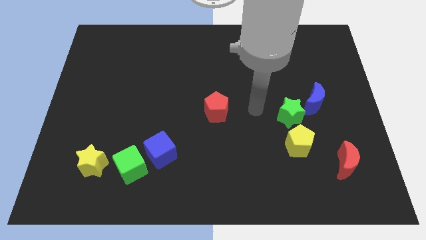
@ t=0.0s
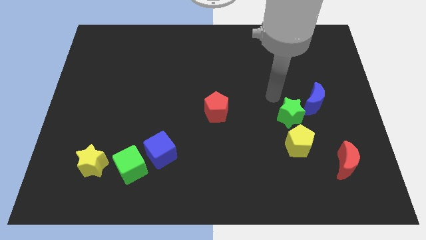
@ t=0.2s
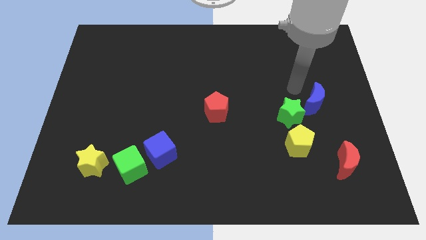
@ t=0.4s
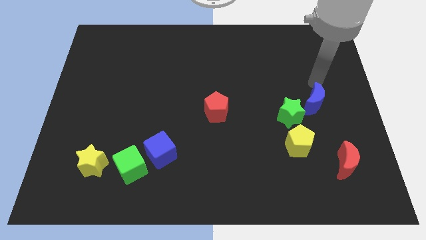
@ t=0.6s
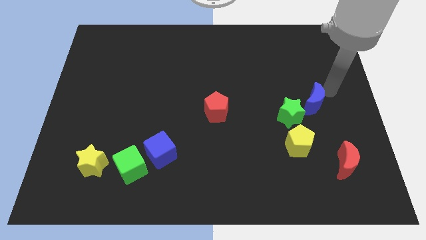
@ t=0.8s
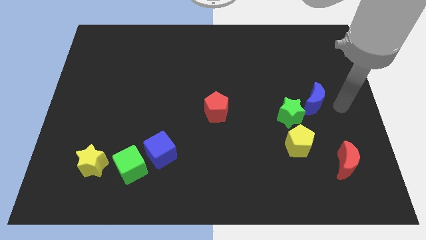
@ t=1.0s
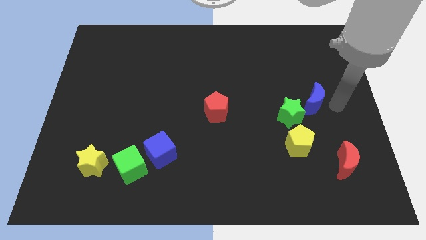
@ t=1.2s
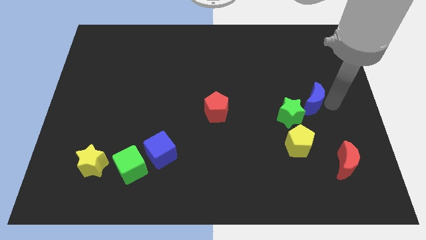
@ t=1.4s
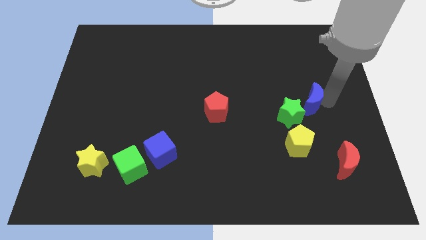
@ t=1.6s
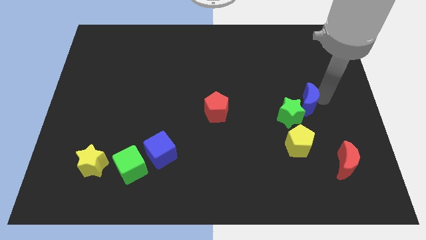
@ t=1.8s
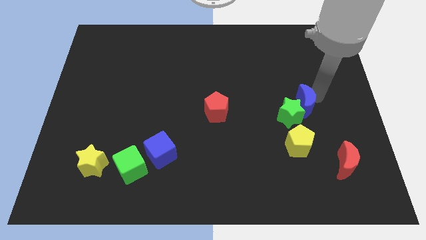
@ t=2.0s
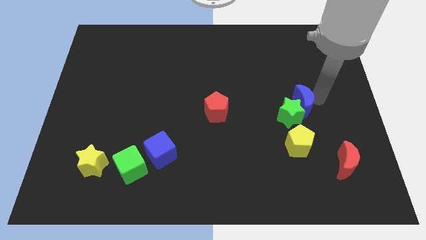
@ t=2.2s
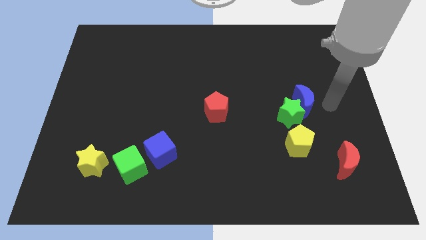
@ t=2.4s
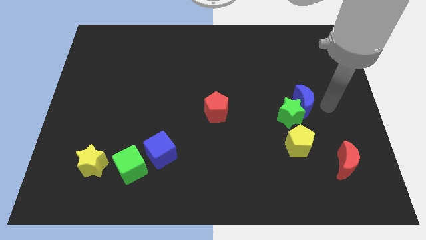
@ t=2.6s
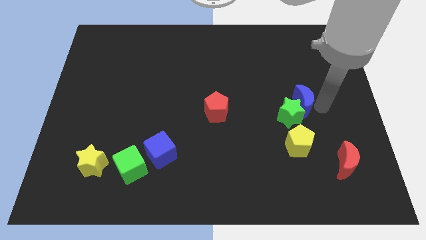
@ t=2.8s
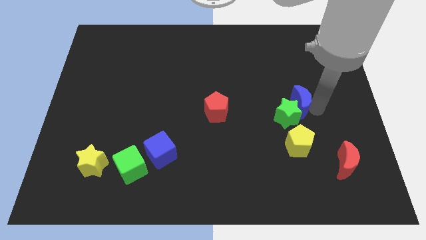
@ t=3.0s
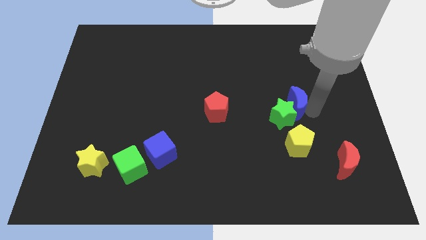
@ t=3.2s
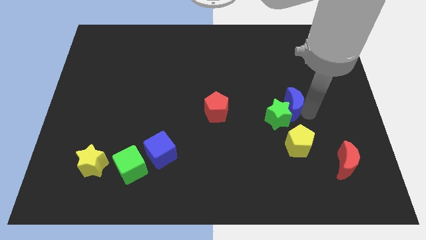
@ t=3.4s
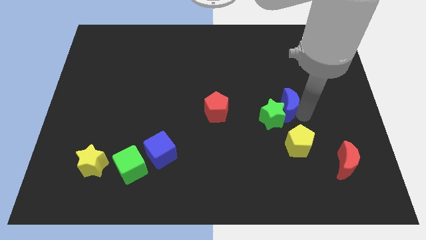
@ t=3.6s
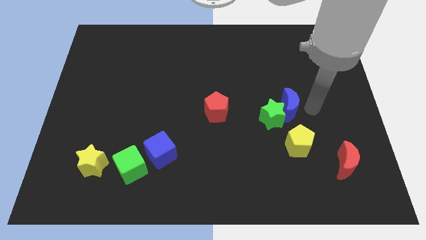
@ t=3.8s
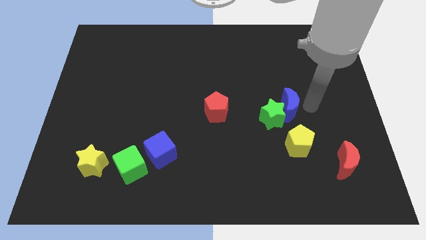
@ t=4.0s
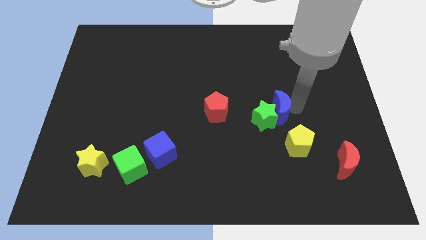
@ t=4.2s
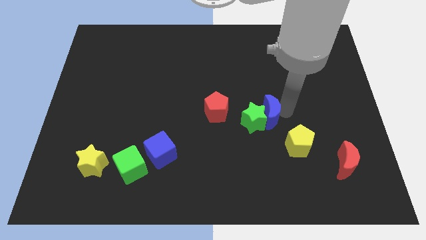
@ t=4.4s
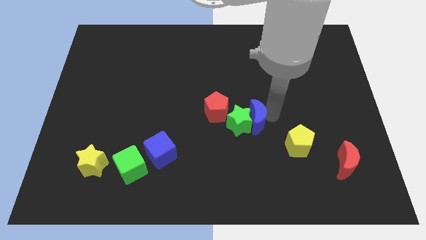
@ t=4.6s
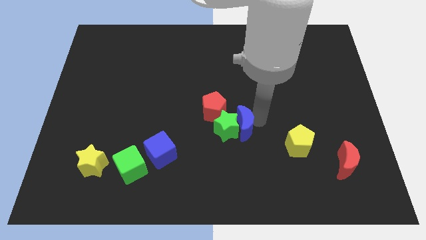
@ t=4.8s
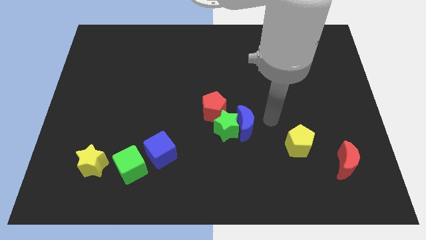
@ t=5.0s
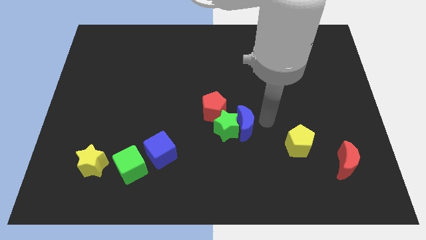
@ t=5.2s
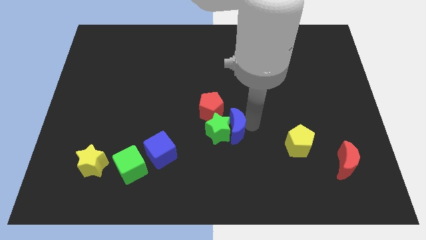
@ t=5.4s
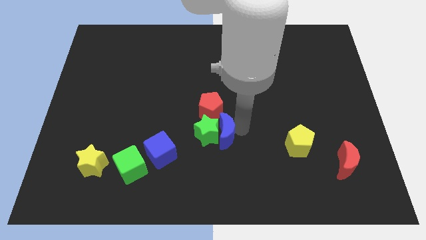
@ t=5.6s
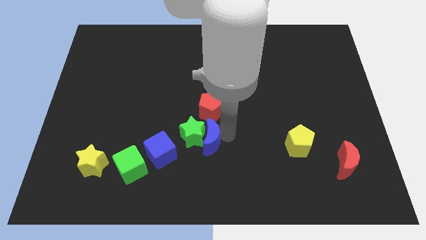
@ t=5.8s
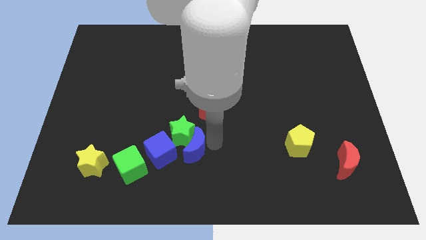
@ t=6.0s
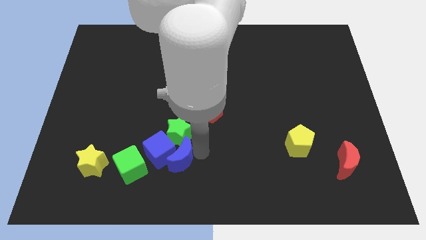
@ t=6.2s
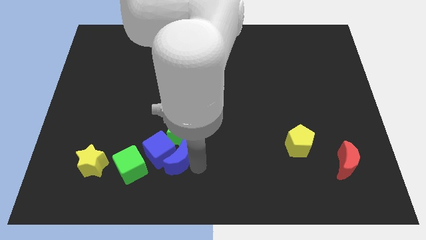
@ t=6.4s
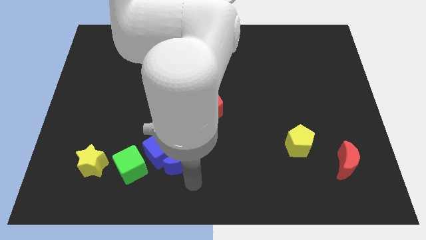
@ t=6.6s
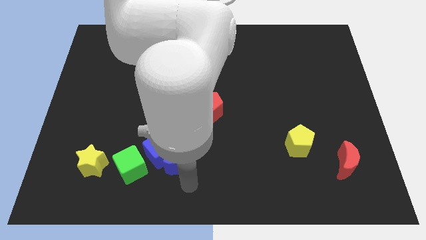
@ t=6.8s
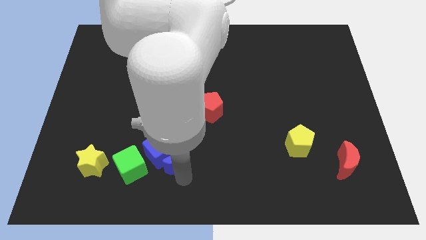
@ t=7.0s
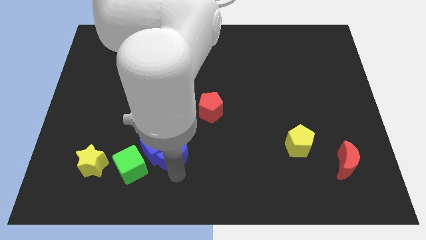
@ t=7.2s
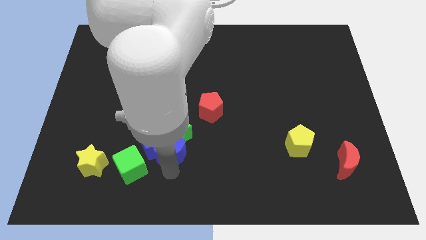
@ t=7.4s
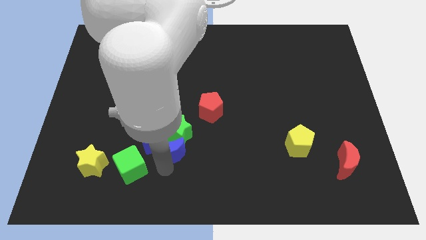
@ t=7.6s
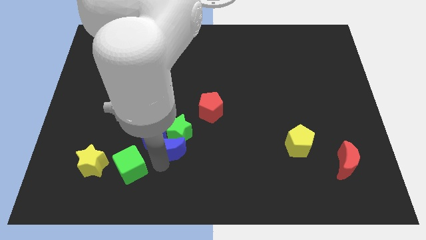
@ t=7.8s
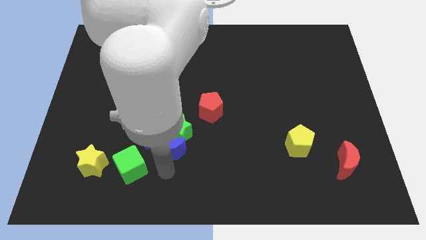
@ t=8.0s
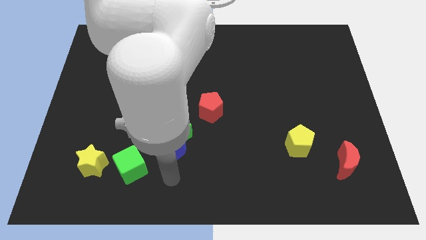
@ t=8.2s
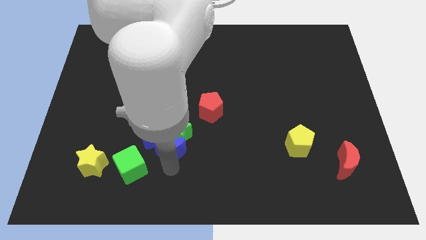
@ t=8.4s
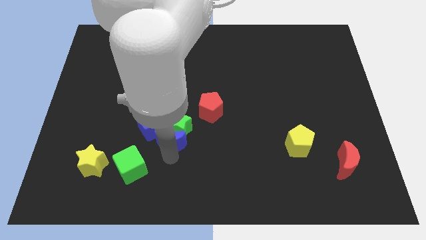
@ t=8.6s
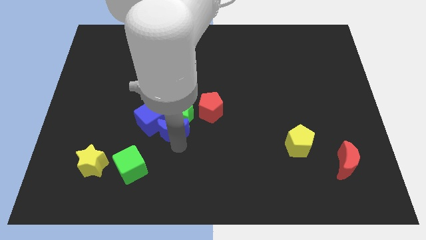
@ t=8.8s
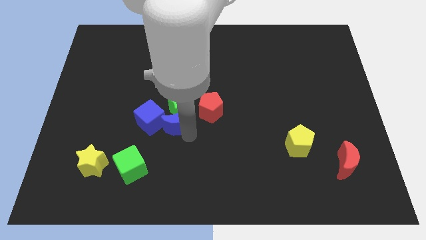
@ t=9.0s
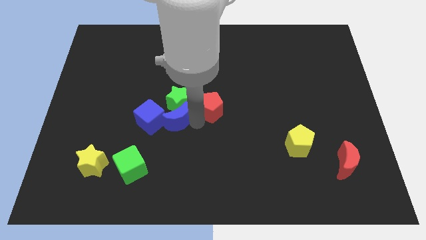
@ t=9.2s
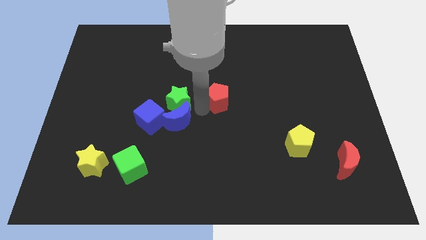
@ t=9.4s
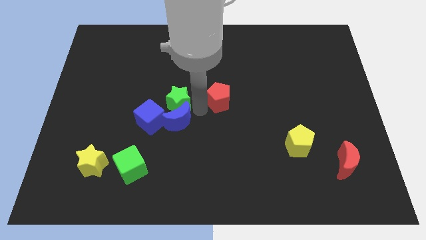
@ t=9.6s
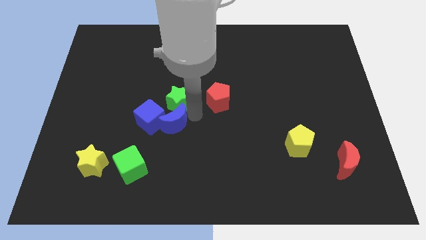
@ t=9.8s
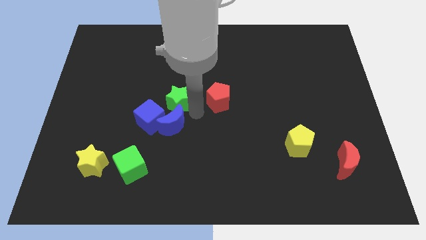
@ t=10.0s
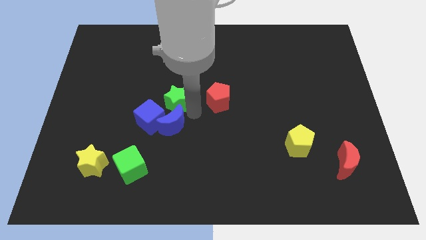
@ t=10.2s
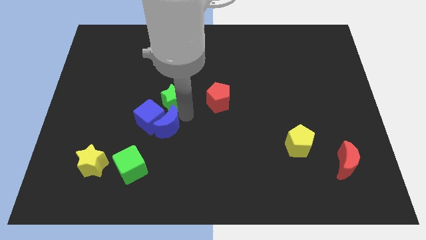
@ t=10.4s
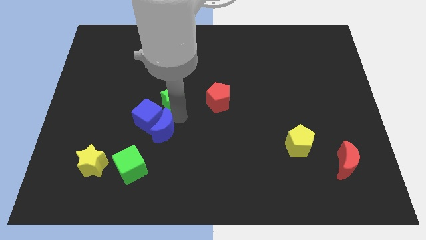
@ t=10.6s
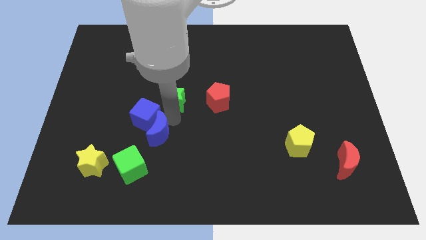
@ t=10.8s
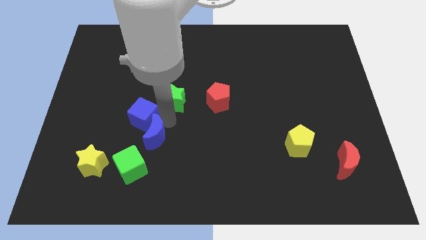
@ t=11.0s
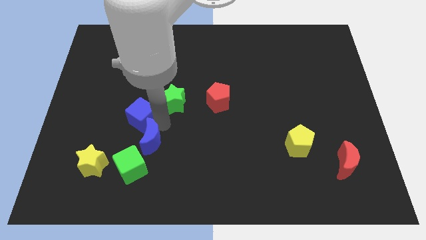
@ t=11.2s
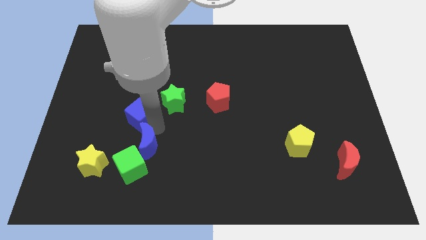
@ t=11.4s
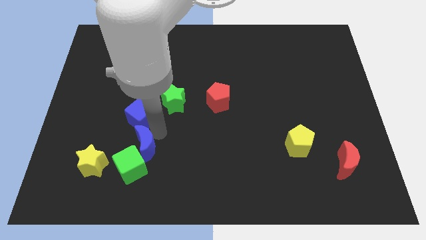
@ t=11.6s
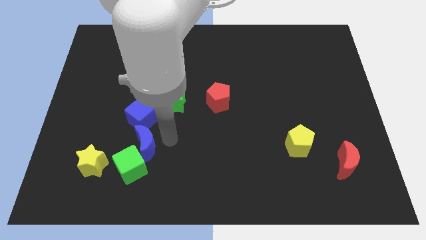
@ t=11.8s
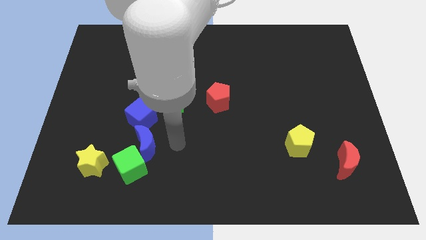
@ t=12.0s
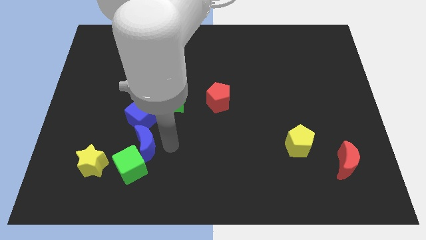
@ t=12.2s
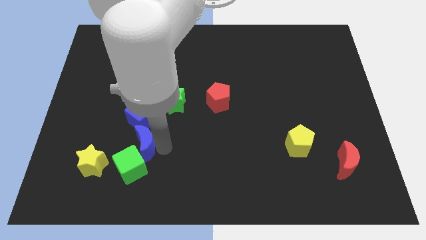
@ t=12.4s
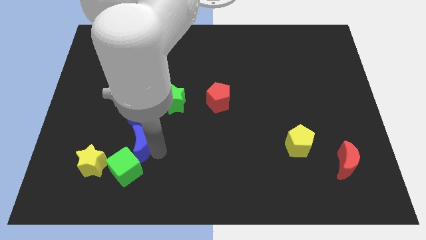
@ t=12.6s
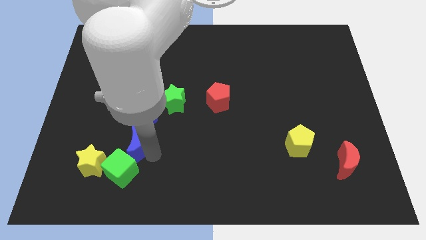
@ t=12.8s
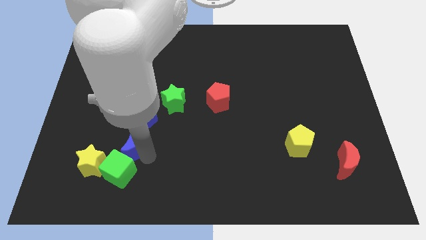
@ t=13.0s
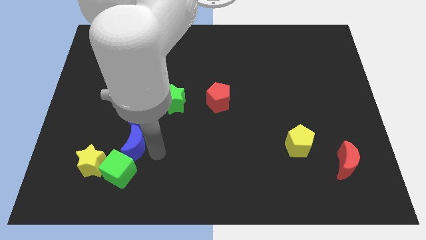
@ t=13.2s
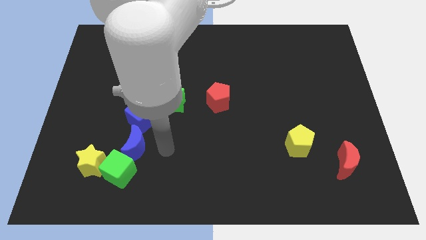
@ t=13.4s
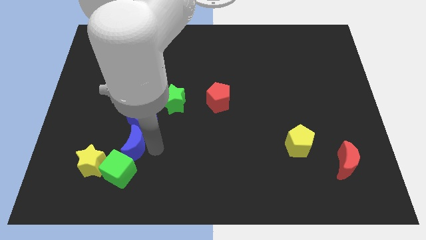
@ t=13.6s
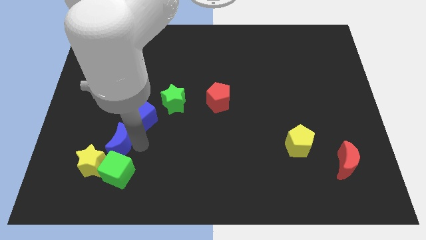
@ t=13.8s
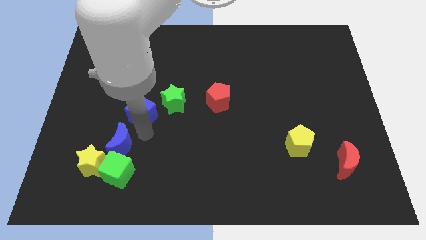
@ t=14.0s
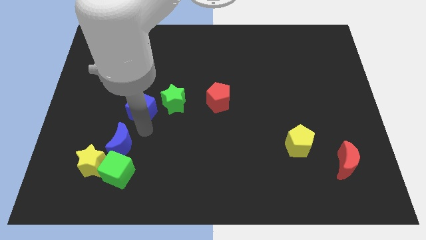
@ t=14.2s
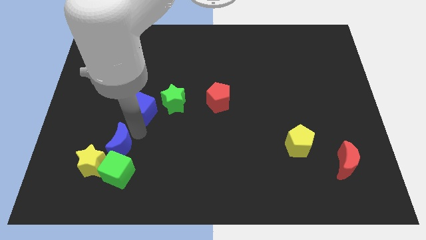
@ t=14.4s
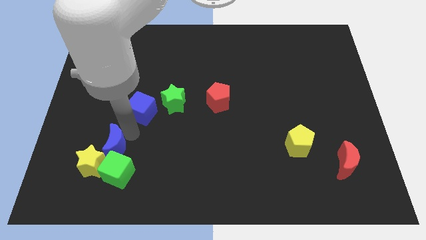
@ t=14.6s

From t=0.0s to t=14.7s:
put the blue moon to the yellow star
